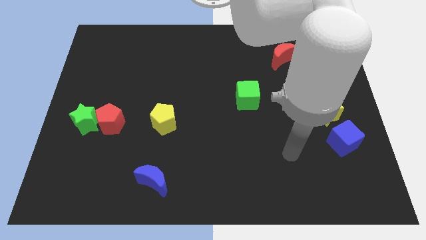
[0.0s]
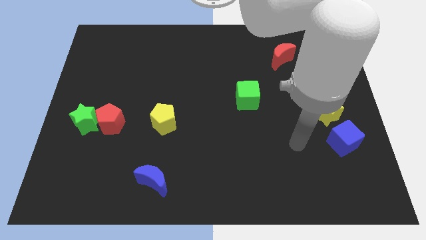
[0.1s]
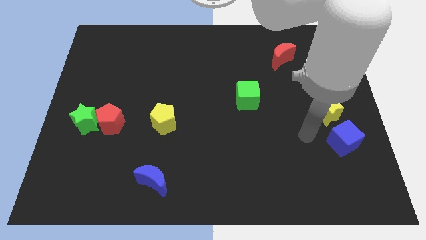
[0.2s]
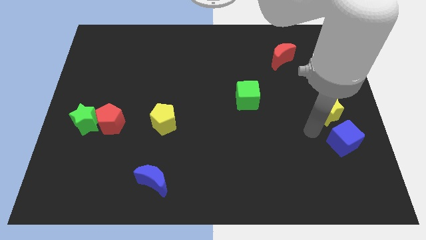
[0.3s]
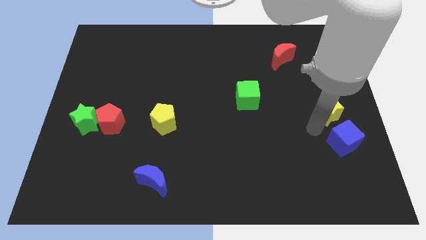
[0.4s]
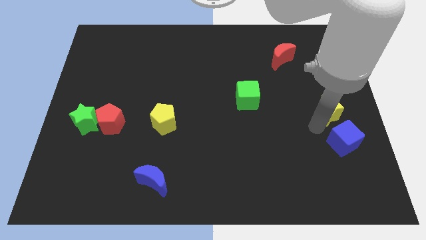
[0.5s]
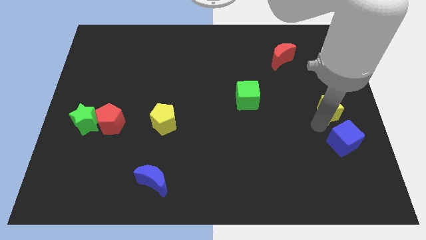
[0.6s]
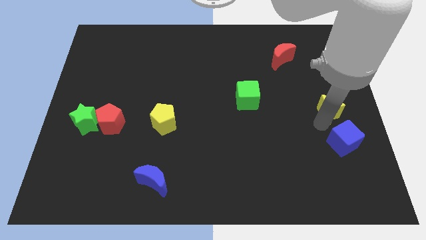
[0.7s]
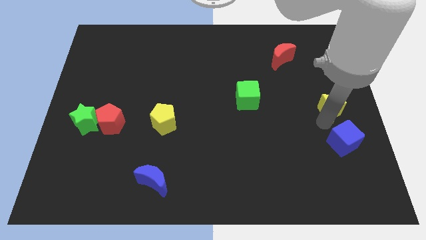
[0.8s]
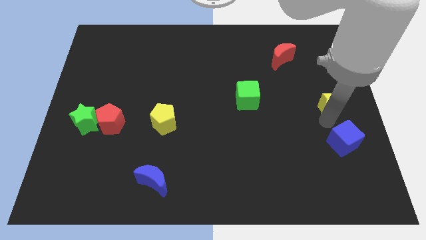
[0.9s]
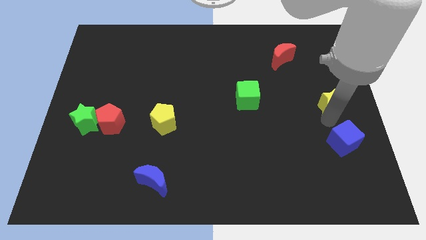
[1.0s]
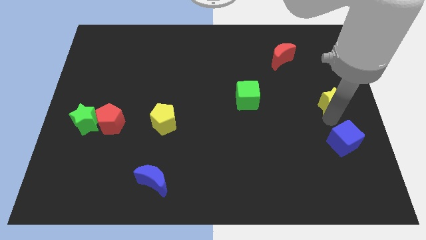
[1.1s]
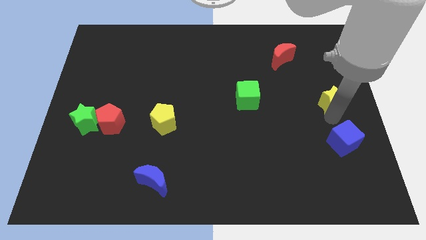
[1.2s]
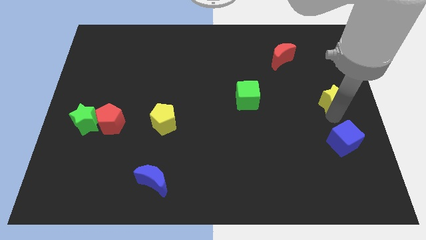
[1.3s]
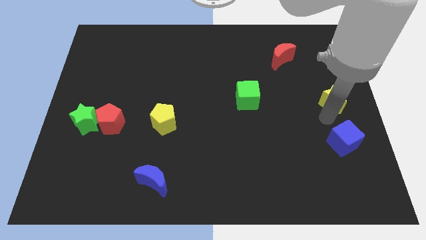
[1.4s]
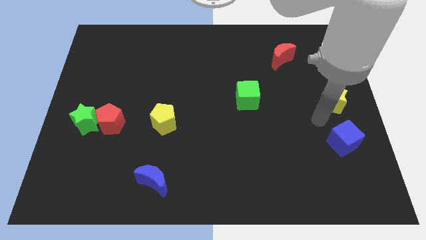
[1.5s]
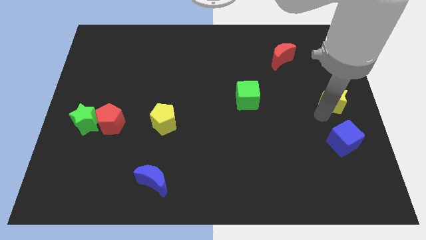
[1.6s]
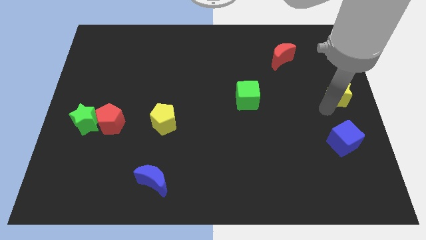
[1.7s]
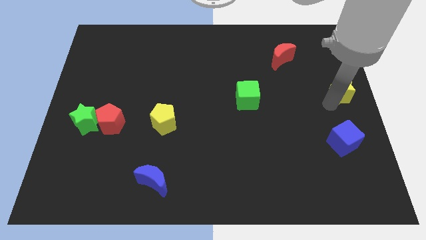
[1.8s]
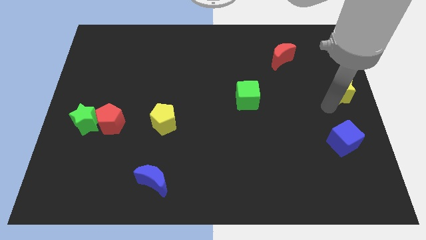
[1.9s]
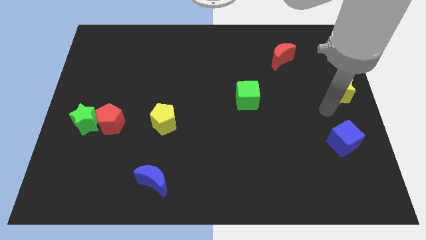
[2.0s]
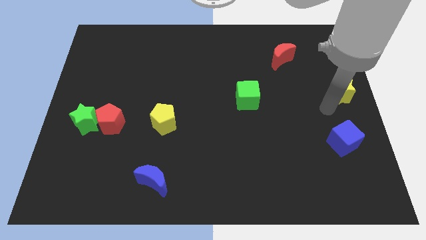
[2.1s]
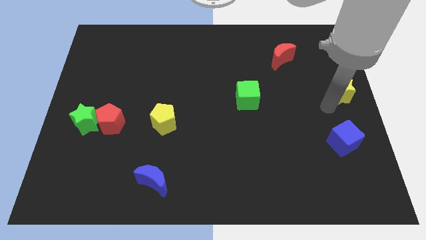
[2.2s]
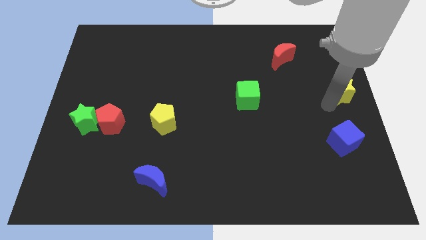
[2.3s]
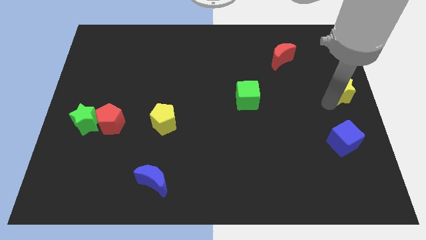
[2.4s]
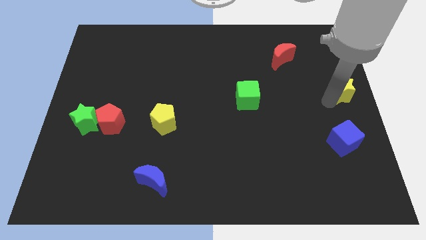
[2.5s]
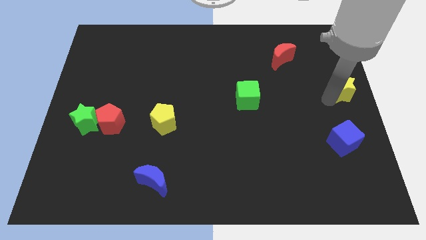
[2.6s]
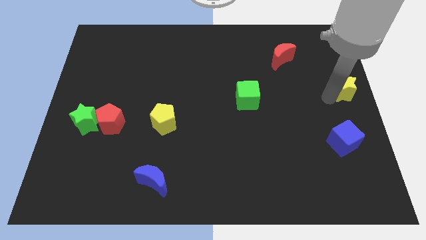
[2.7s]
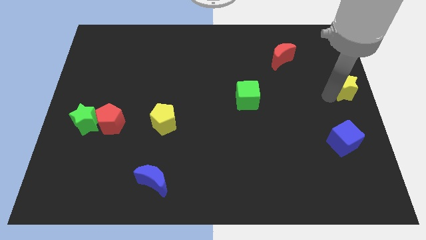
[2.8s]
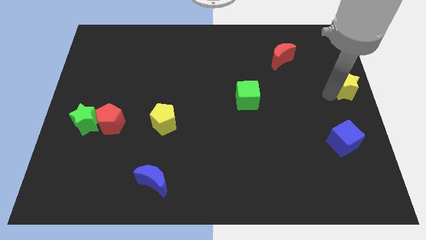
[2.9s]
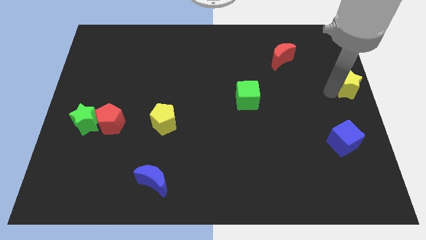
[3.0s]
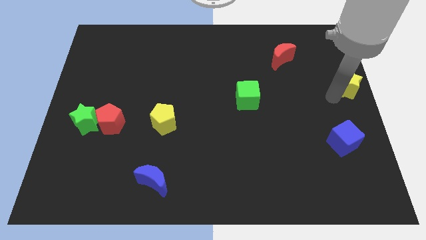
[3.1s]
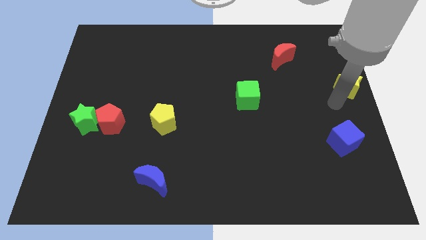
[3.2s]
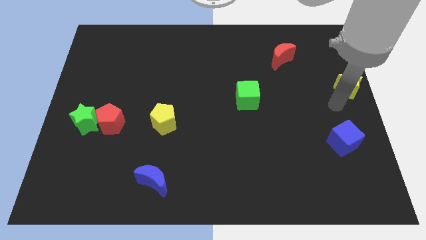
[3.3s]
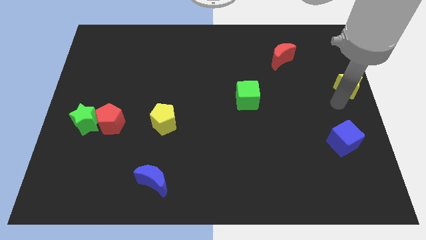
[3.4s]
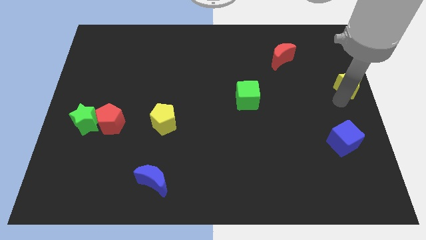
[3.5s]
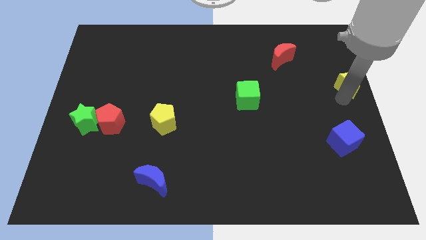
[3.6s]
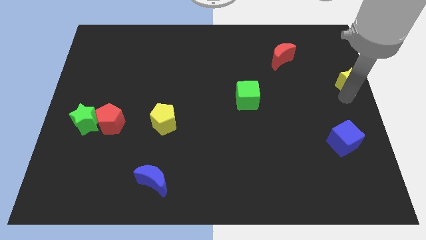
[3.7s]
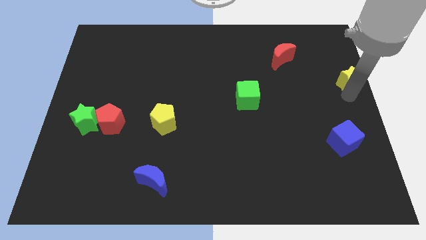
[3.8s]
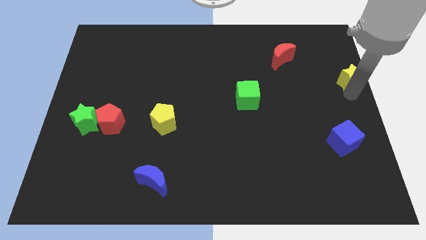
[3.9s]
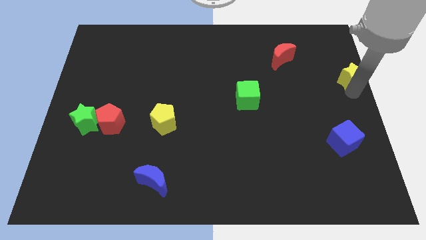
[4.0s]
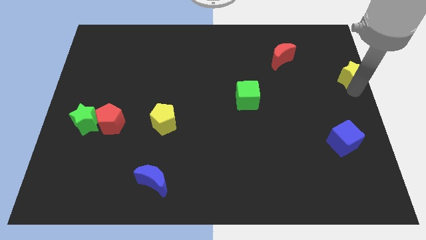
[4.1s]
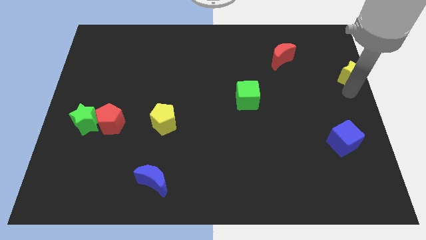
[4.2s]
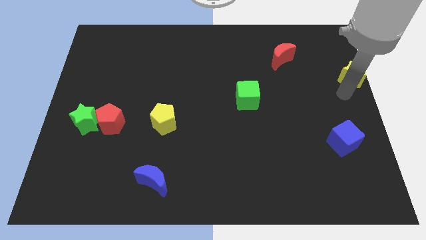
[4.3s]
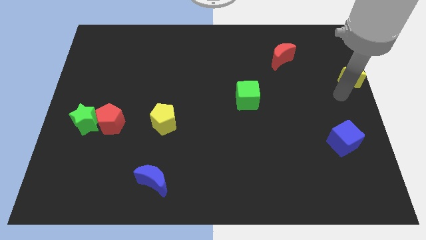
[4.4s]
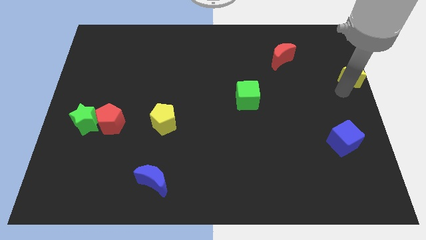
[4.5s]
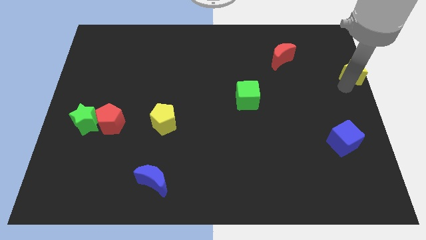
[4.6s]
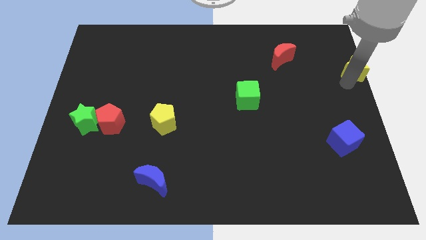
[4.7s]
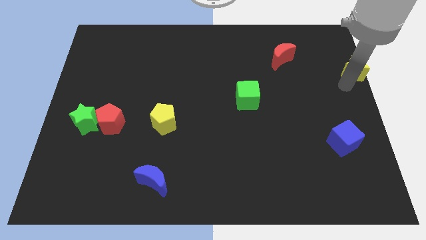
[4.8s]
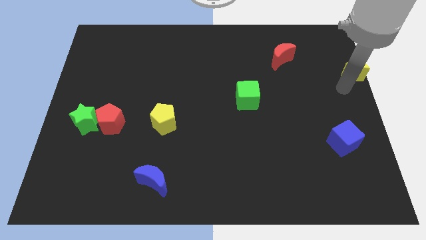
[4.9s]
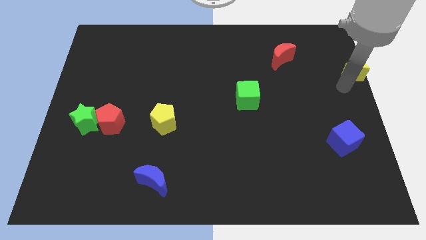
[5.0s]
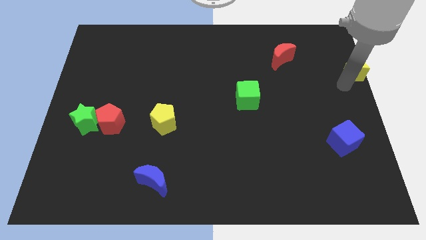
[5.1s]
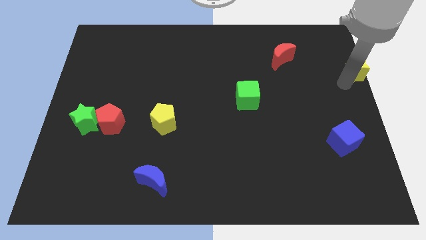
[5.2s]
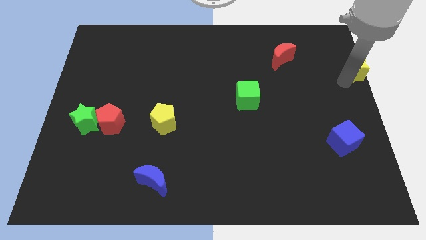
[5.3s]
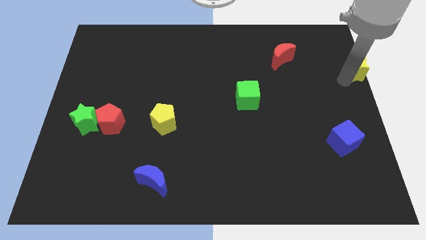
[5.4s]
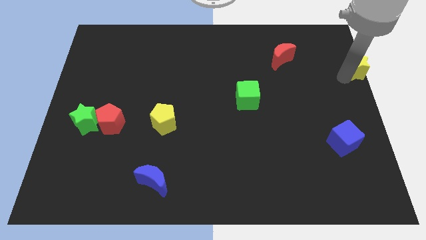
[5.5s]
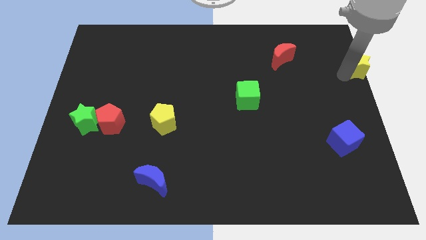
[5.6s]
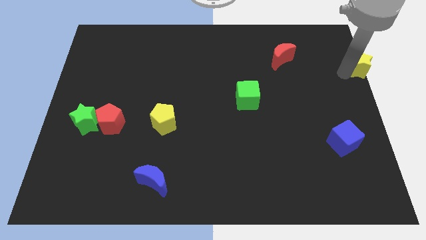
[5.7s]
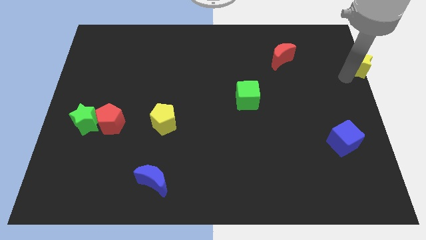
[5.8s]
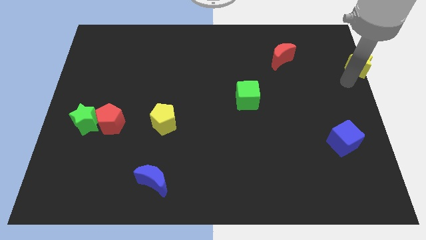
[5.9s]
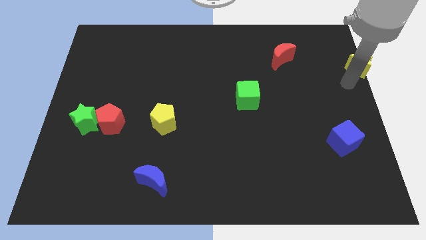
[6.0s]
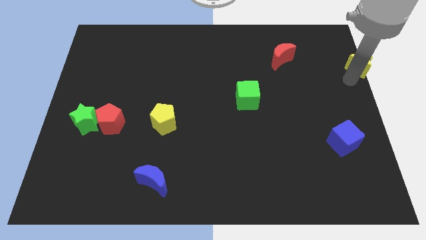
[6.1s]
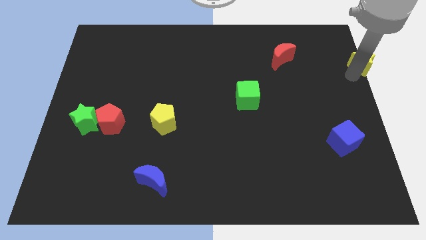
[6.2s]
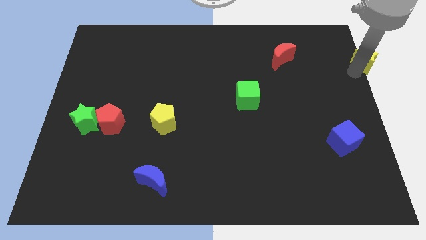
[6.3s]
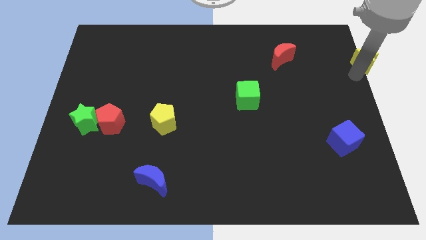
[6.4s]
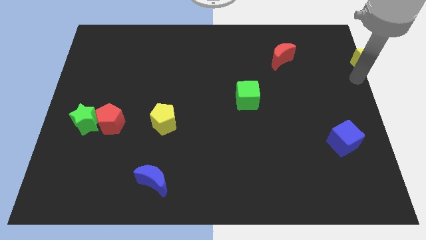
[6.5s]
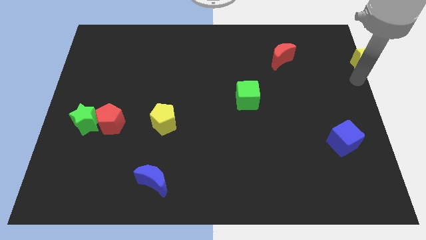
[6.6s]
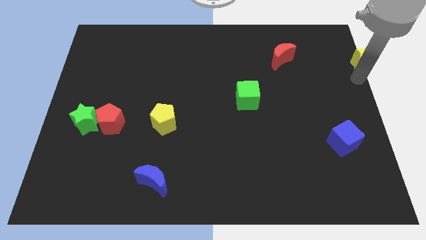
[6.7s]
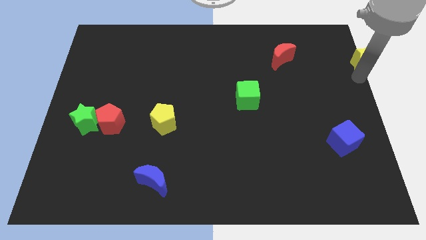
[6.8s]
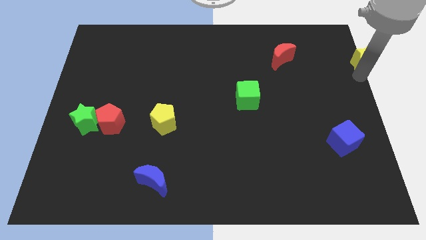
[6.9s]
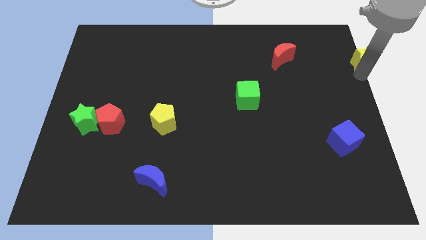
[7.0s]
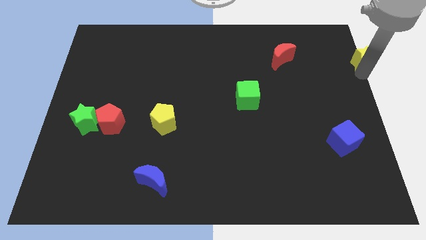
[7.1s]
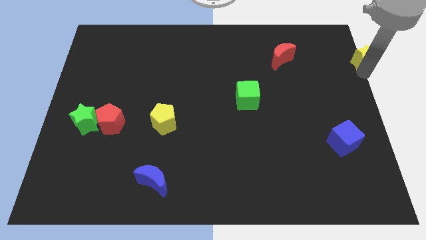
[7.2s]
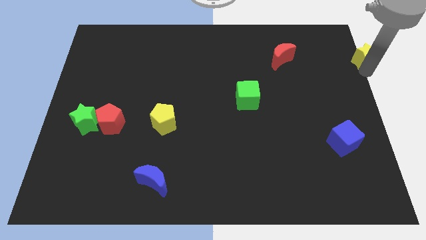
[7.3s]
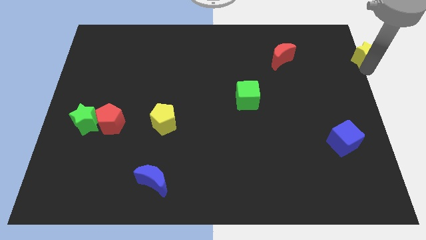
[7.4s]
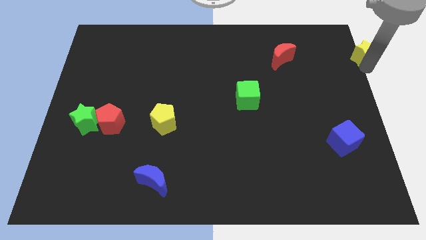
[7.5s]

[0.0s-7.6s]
put the yellow star to the top right corner

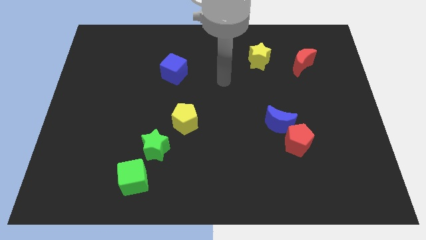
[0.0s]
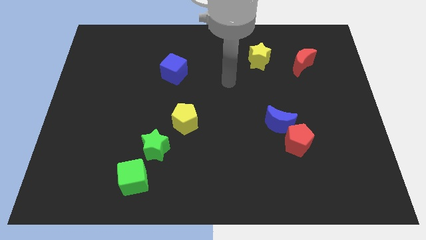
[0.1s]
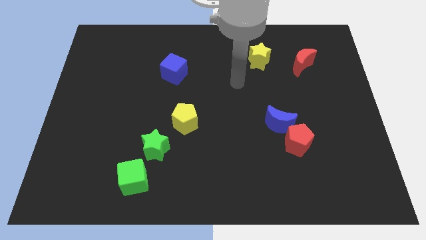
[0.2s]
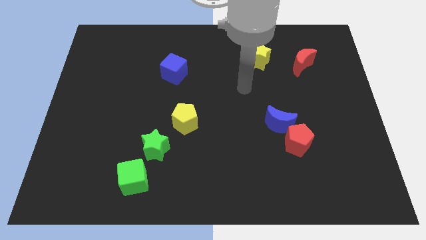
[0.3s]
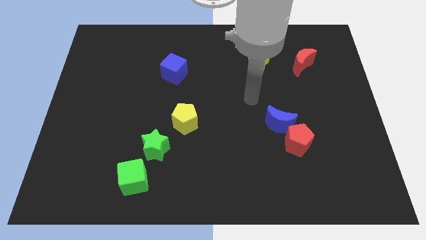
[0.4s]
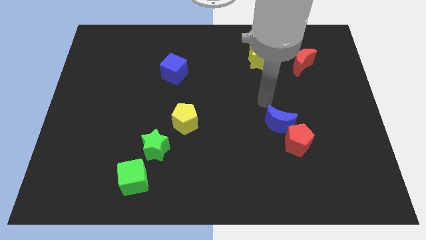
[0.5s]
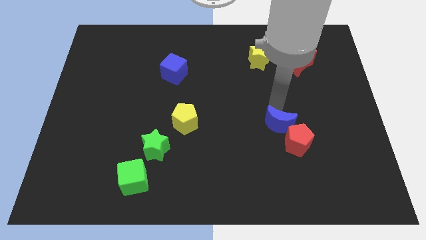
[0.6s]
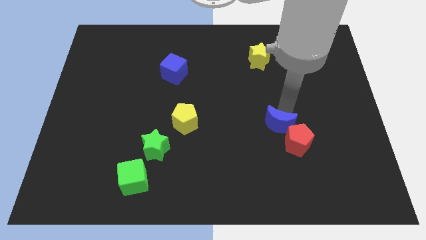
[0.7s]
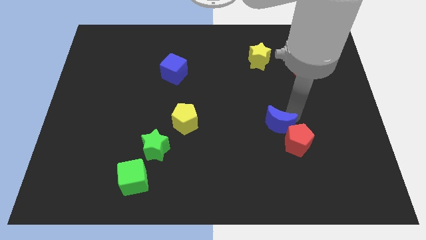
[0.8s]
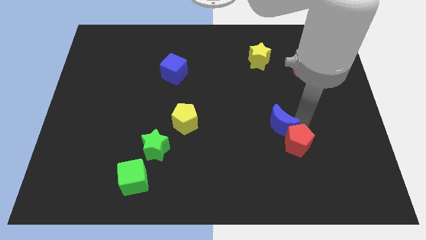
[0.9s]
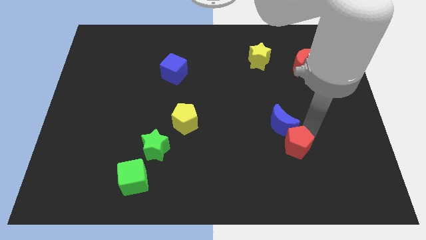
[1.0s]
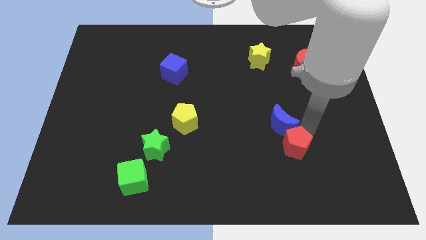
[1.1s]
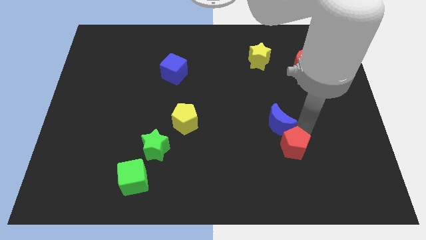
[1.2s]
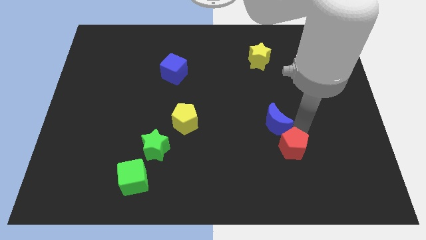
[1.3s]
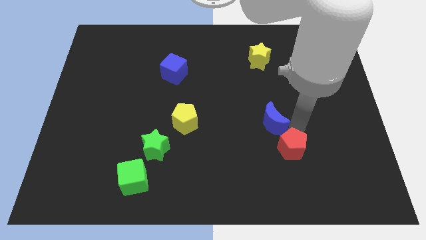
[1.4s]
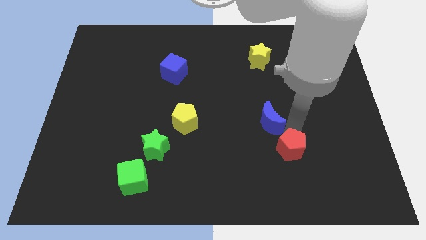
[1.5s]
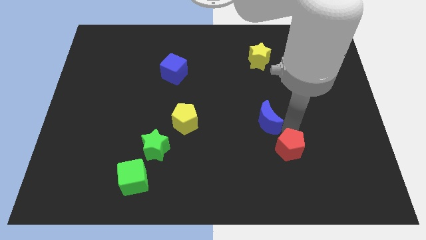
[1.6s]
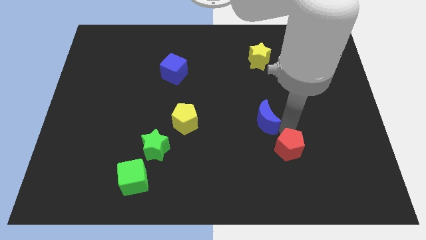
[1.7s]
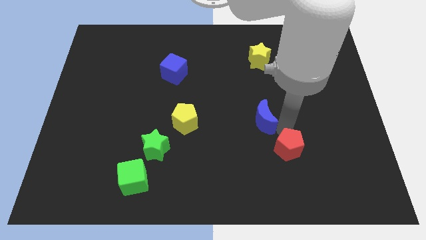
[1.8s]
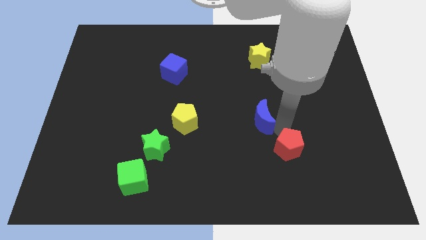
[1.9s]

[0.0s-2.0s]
put the blue moon to the center
